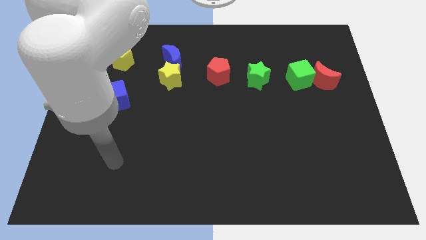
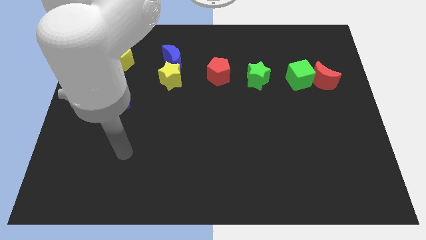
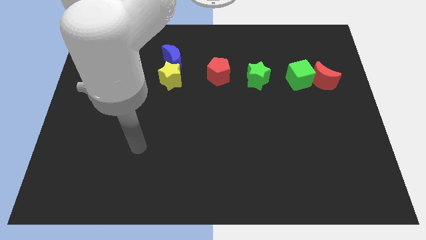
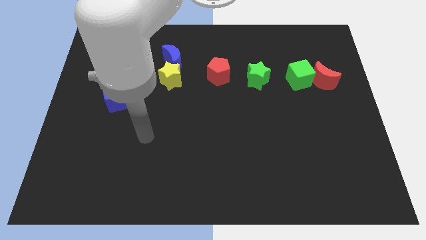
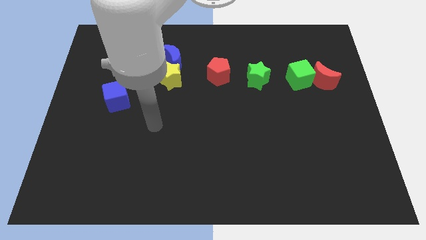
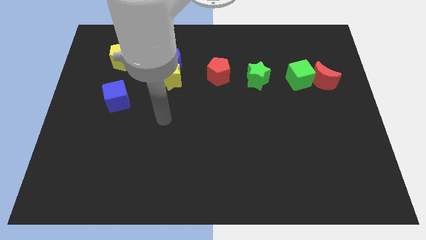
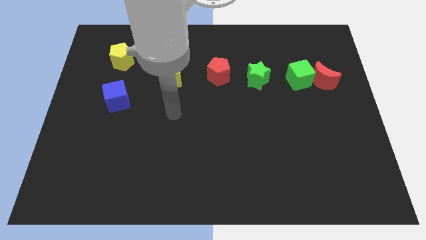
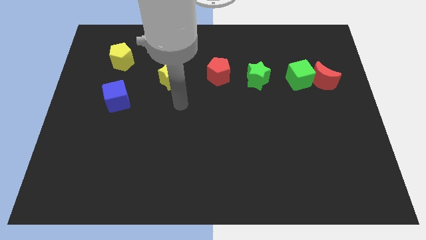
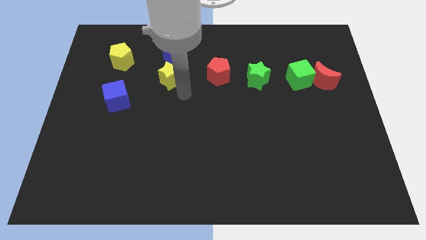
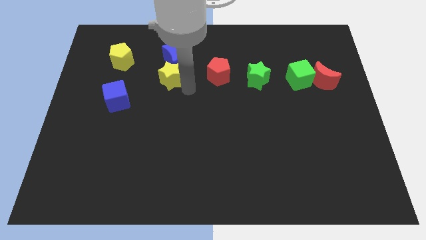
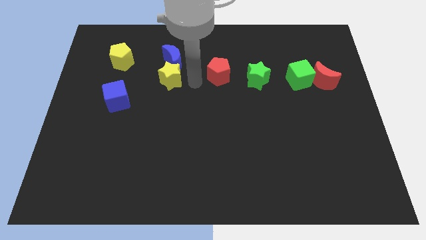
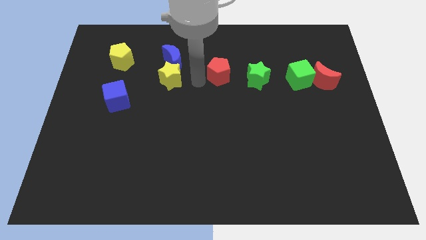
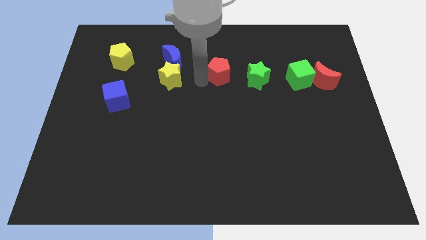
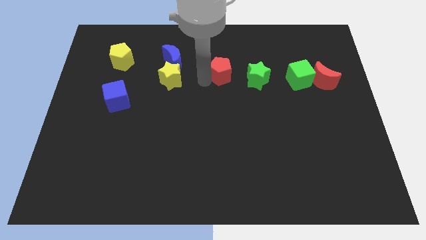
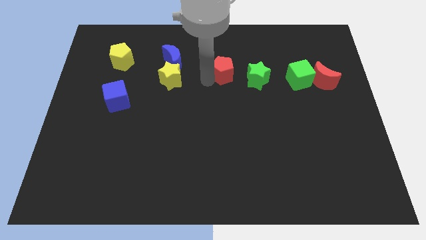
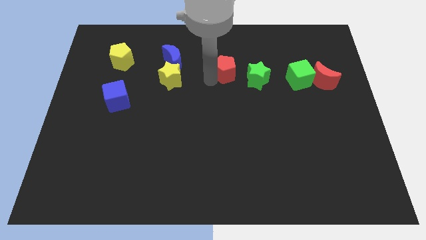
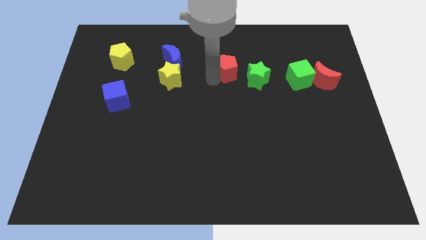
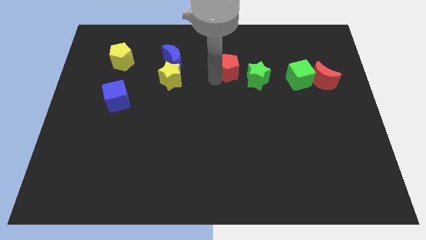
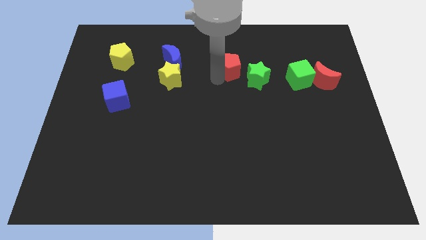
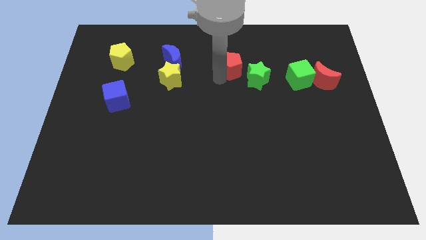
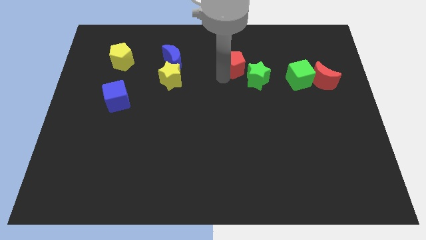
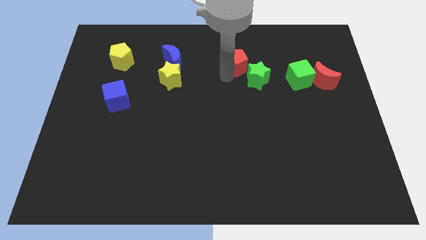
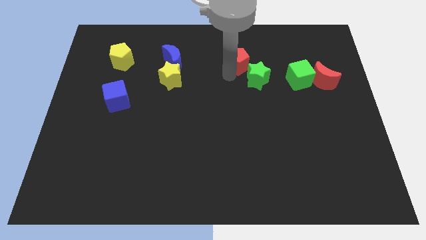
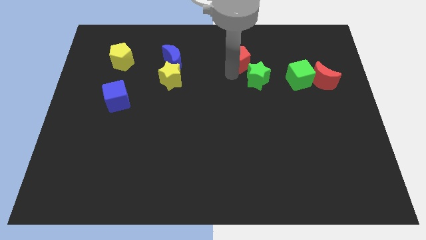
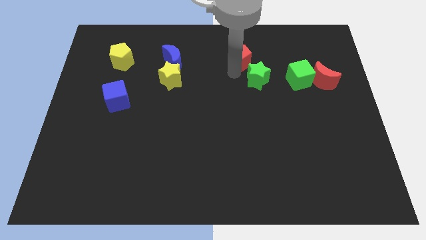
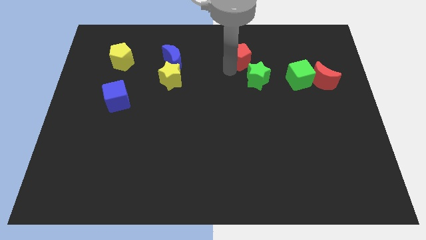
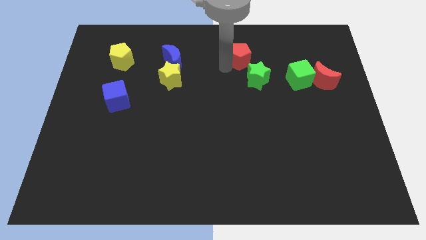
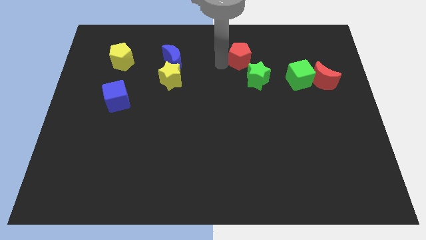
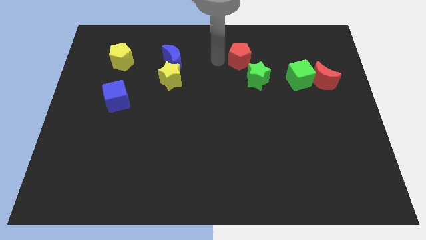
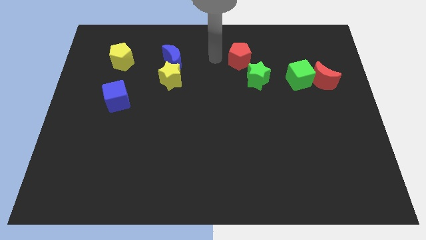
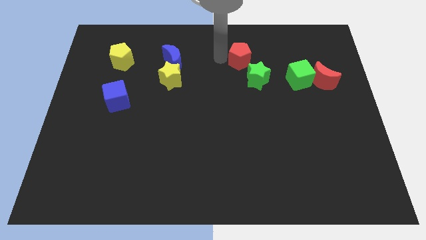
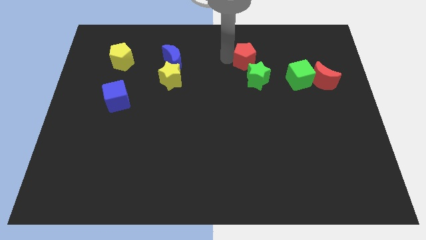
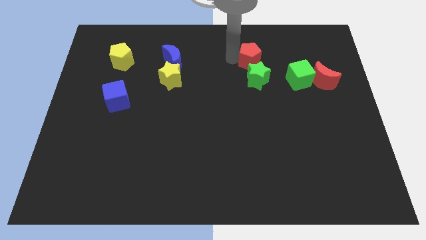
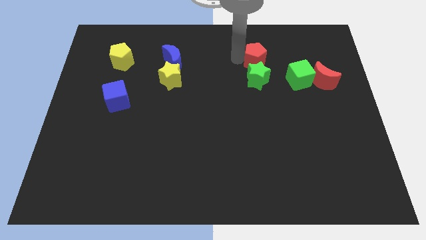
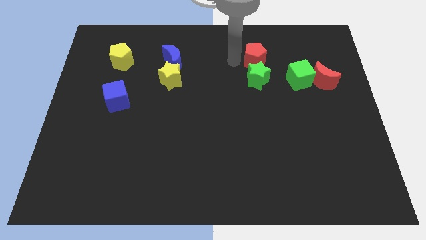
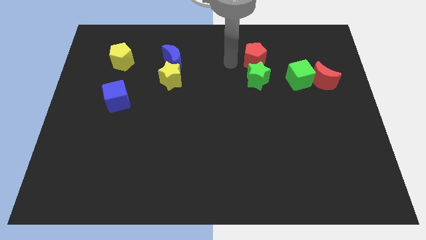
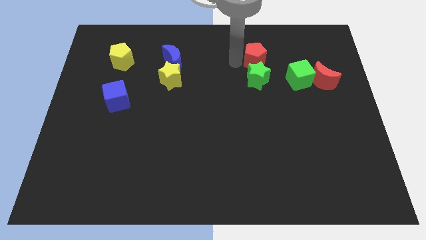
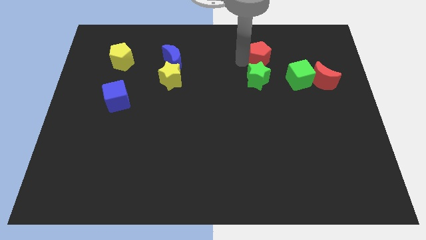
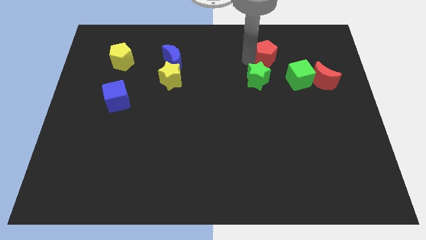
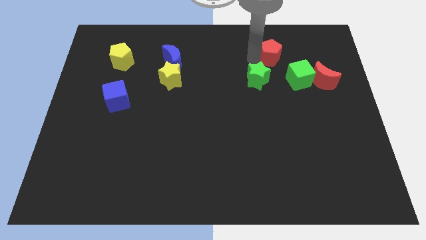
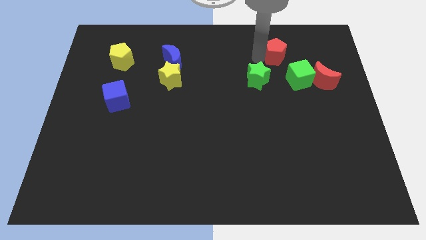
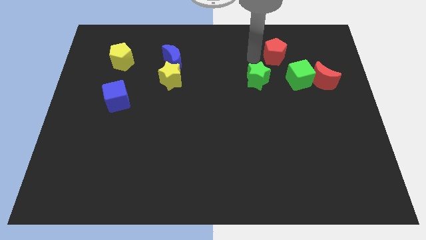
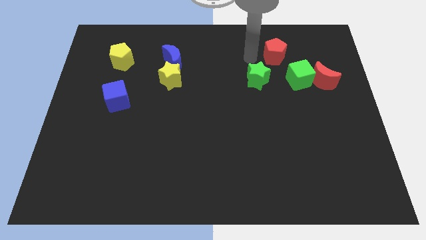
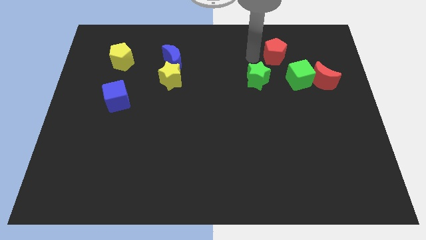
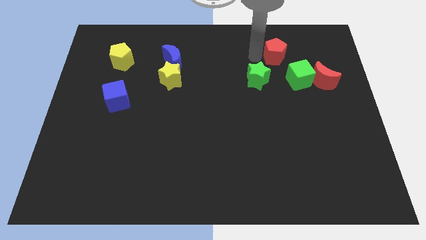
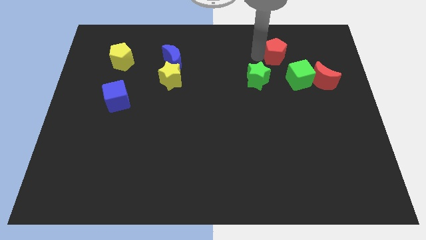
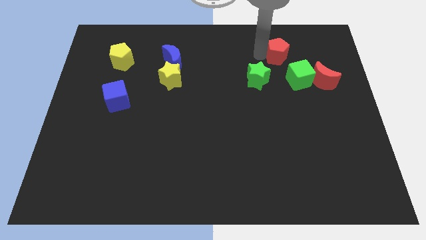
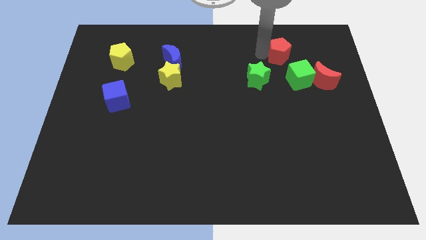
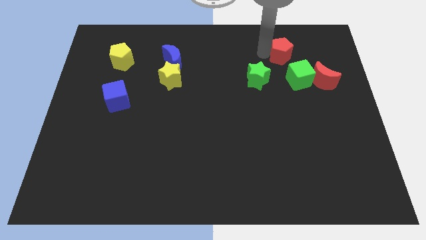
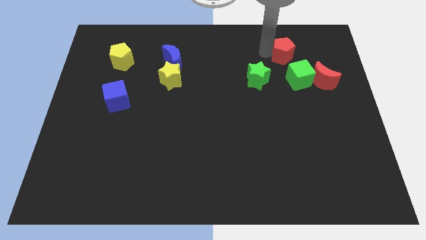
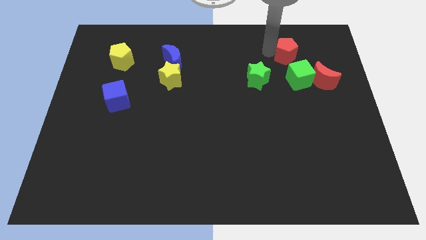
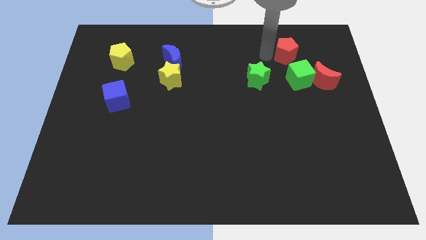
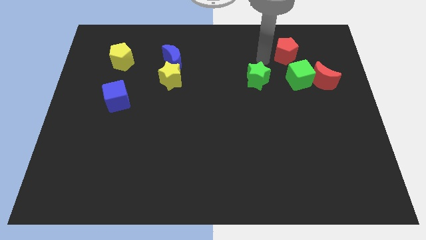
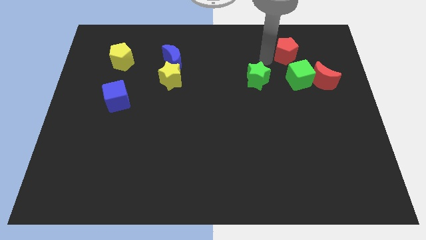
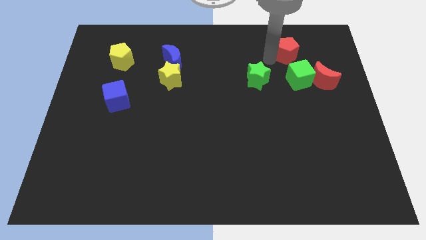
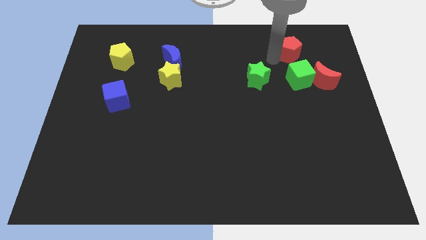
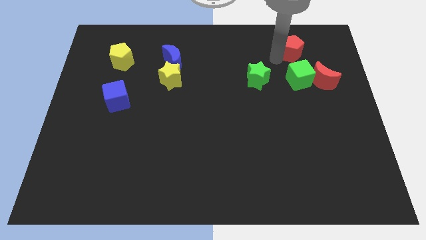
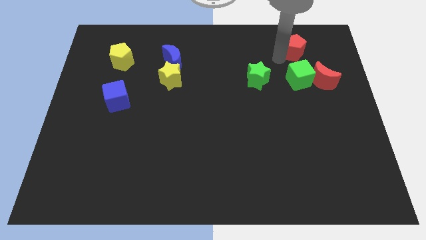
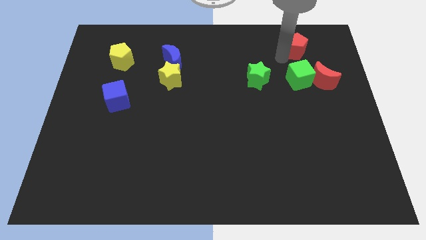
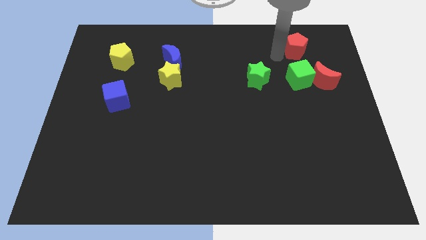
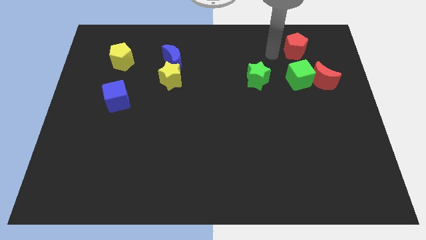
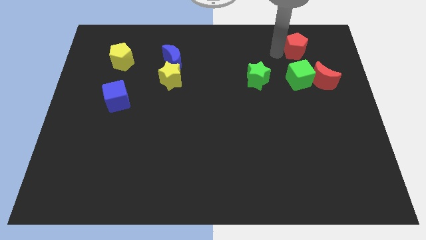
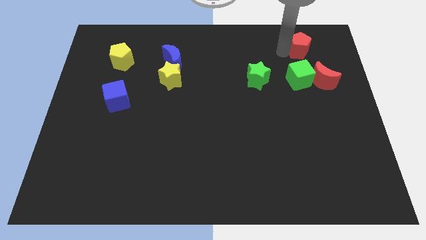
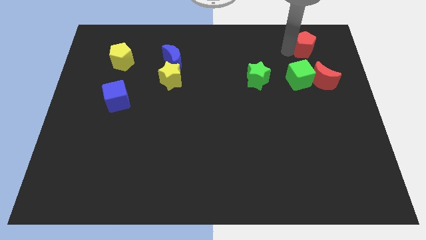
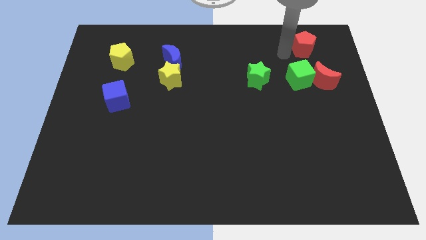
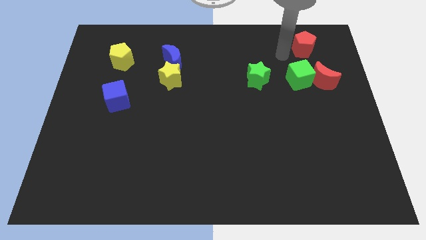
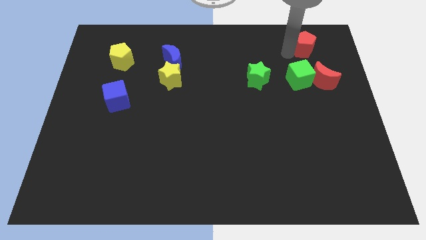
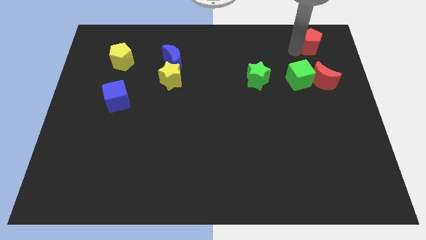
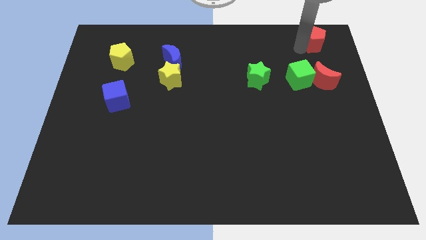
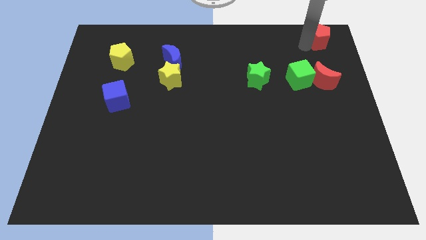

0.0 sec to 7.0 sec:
push the red pentagon to the top right of the board
